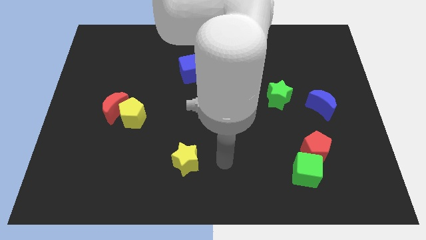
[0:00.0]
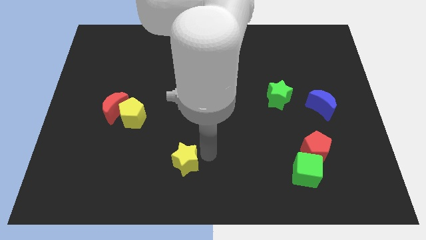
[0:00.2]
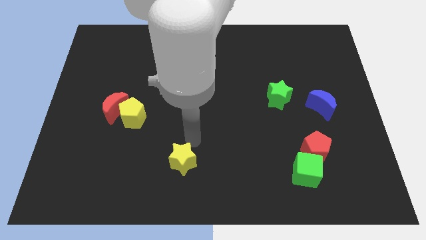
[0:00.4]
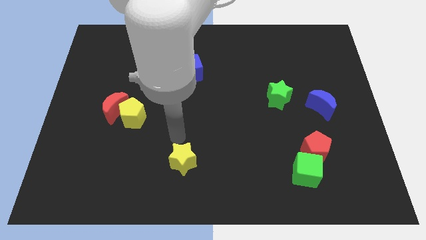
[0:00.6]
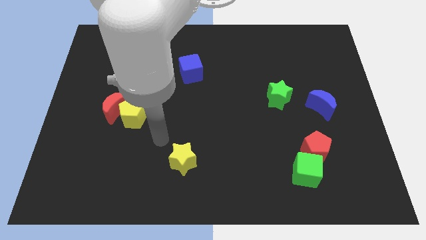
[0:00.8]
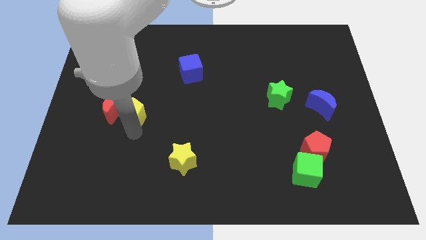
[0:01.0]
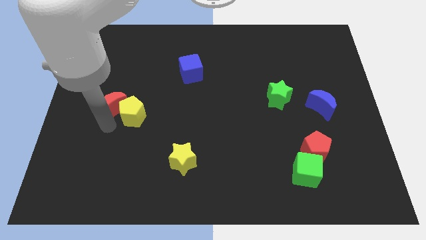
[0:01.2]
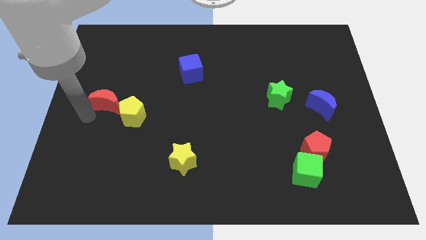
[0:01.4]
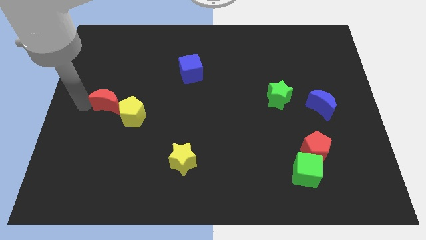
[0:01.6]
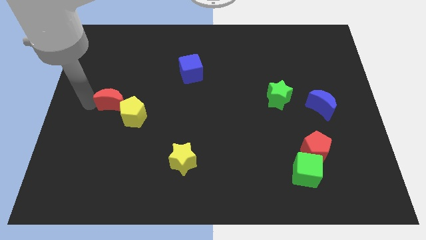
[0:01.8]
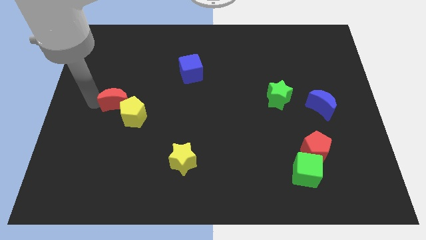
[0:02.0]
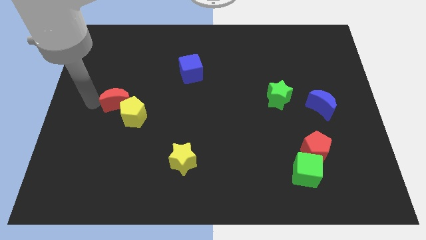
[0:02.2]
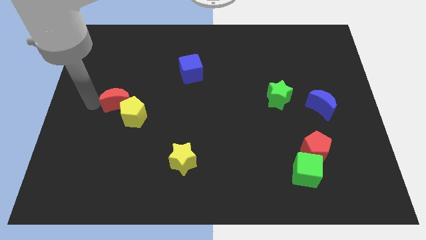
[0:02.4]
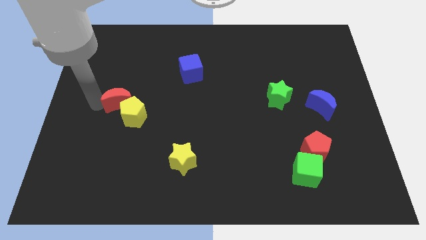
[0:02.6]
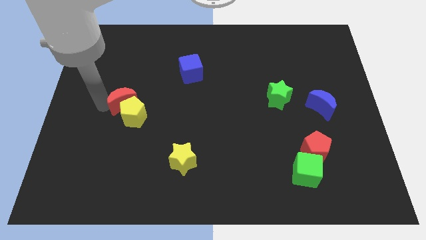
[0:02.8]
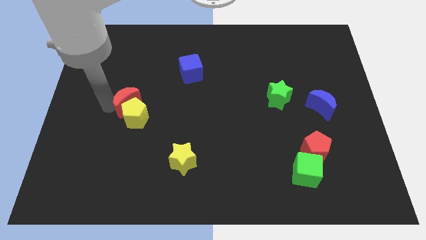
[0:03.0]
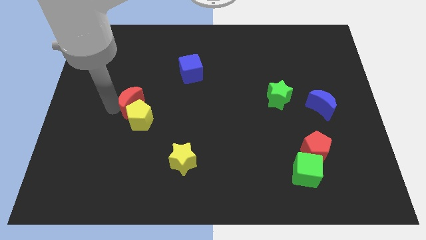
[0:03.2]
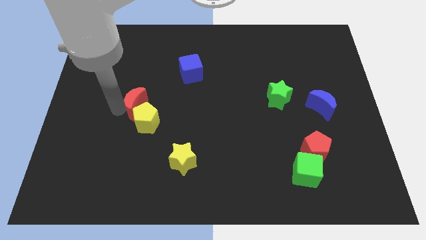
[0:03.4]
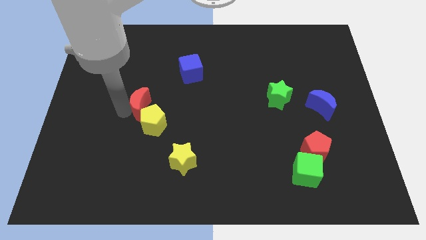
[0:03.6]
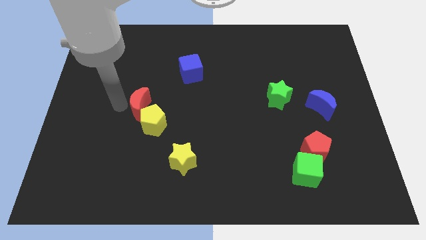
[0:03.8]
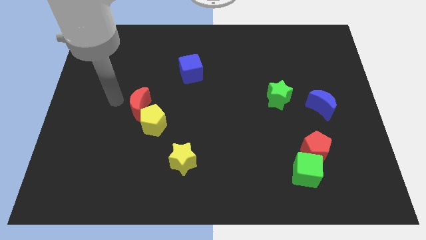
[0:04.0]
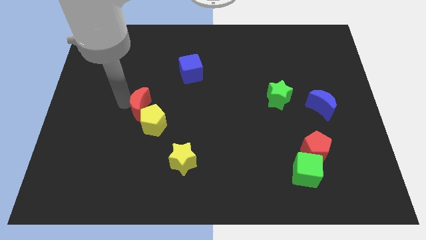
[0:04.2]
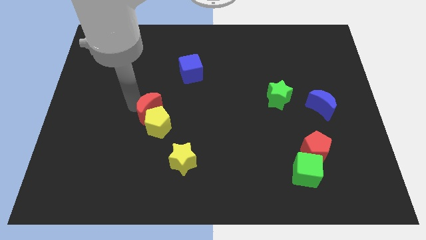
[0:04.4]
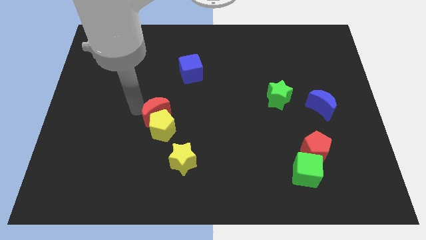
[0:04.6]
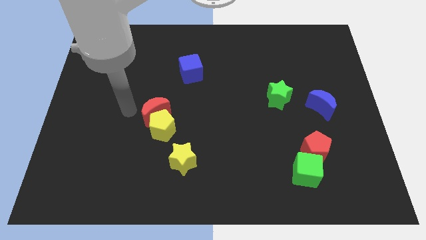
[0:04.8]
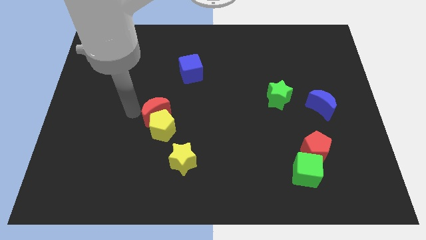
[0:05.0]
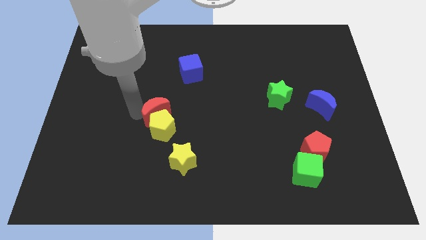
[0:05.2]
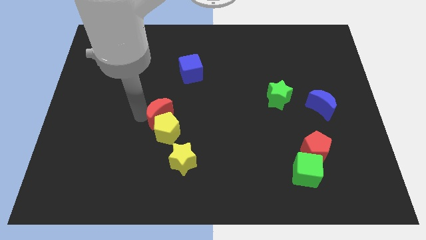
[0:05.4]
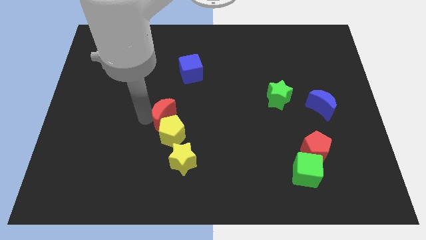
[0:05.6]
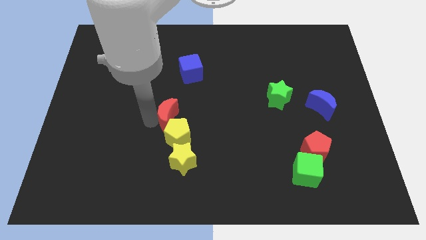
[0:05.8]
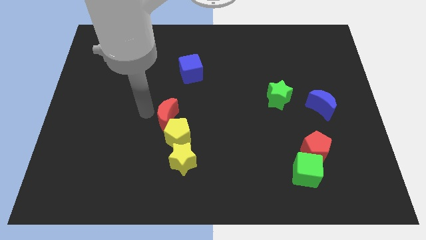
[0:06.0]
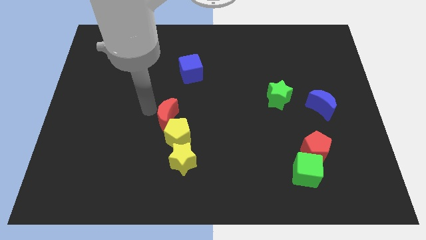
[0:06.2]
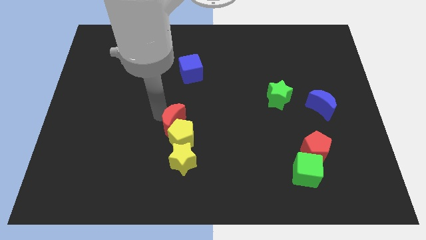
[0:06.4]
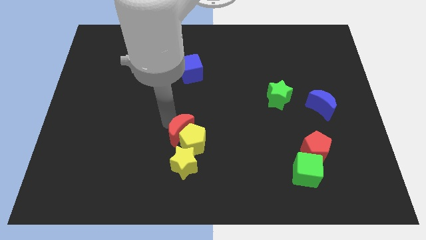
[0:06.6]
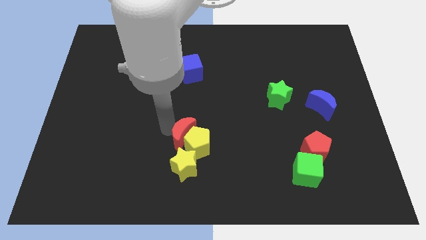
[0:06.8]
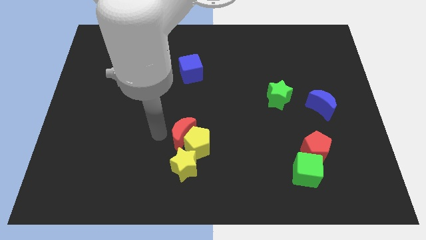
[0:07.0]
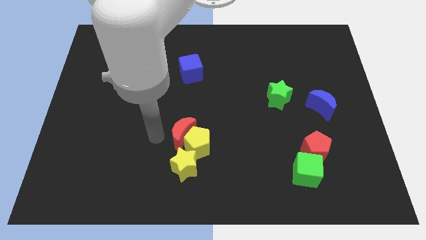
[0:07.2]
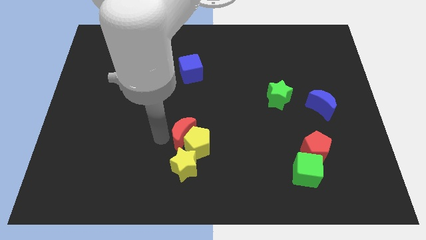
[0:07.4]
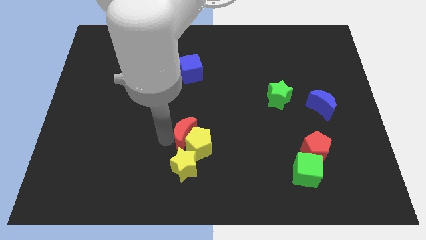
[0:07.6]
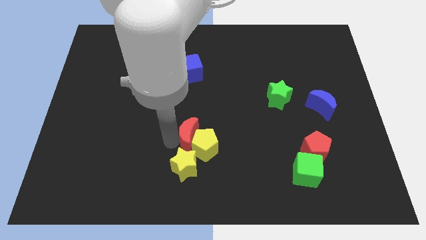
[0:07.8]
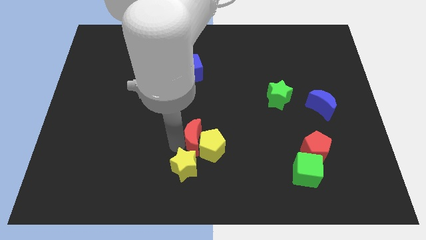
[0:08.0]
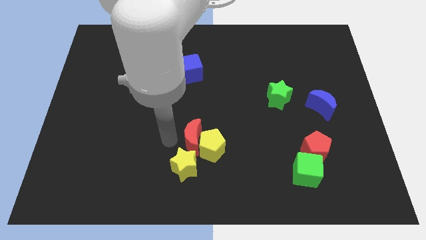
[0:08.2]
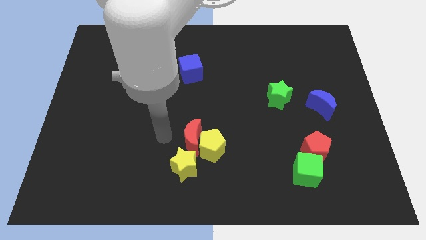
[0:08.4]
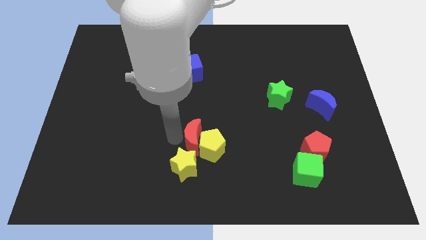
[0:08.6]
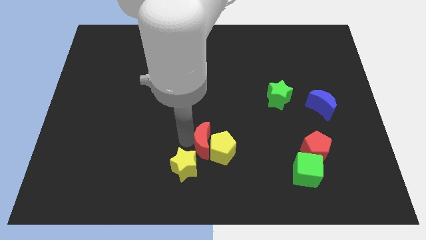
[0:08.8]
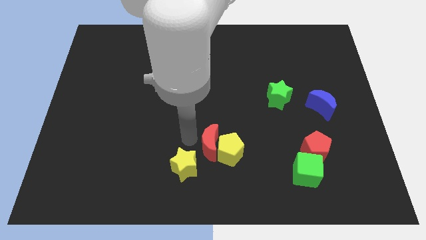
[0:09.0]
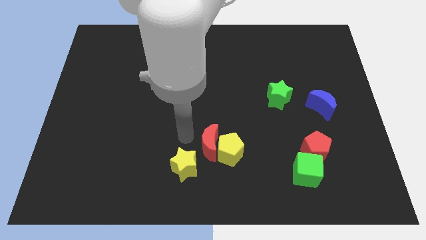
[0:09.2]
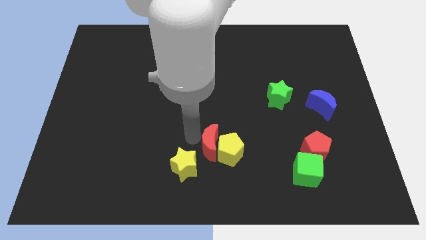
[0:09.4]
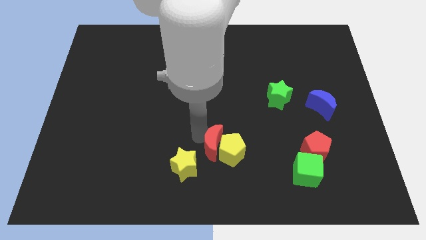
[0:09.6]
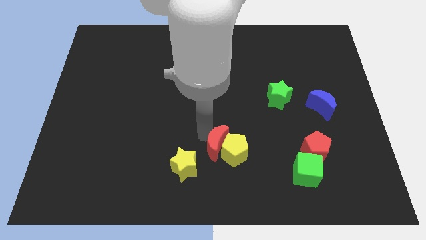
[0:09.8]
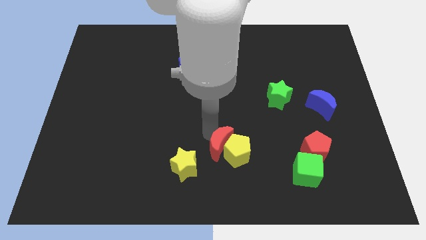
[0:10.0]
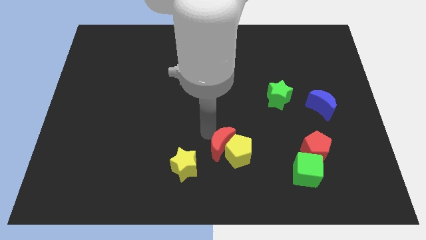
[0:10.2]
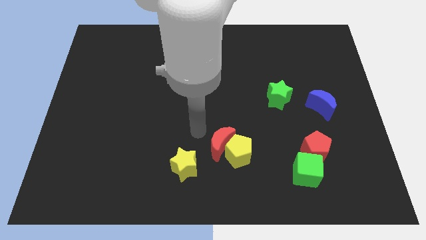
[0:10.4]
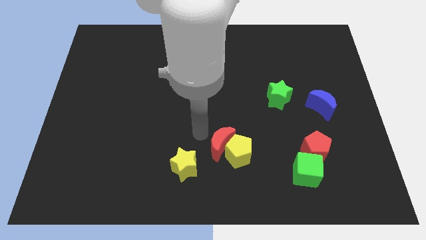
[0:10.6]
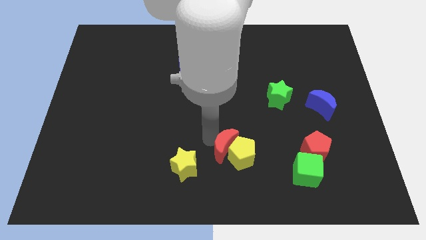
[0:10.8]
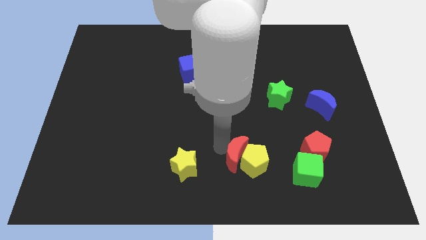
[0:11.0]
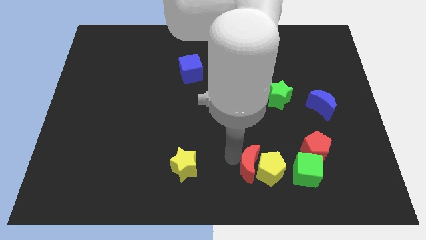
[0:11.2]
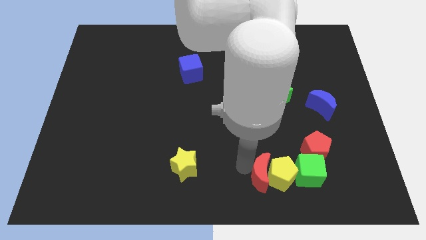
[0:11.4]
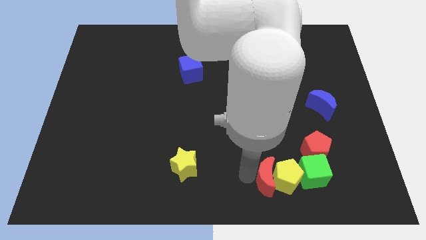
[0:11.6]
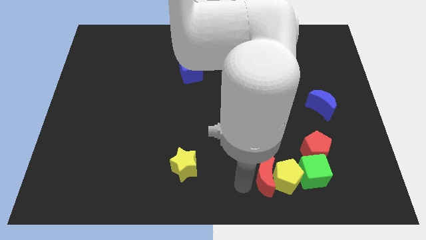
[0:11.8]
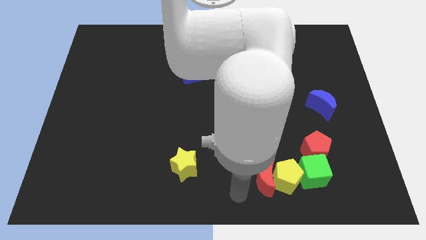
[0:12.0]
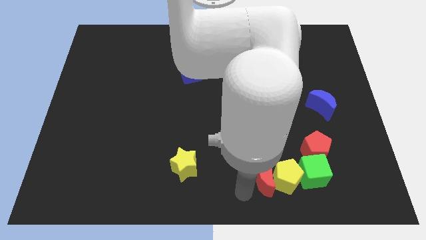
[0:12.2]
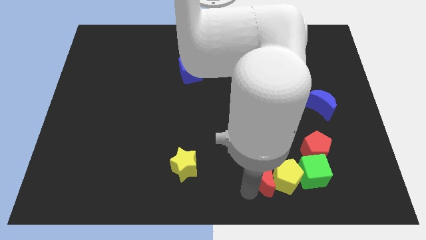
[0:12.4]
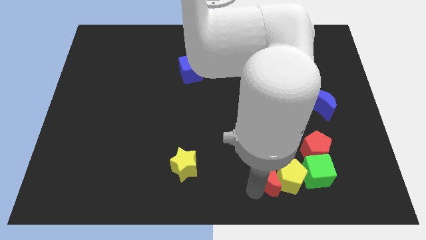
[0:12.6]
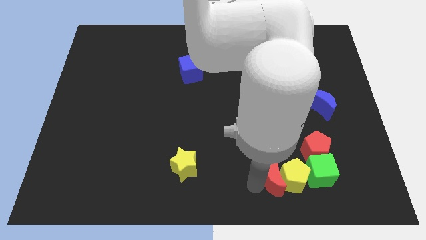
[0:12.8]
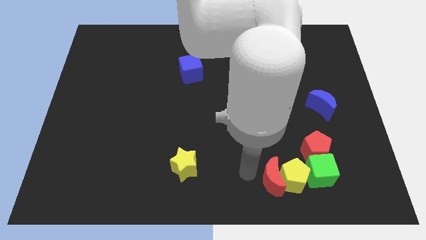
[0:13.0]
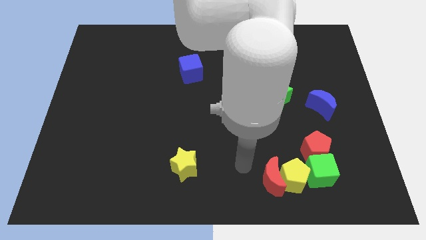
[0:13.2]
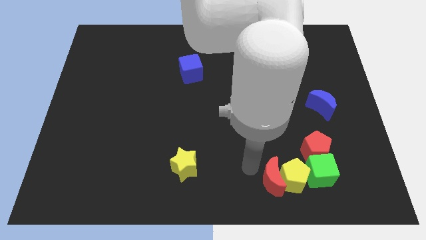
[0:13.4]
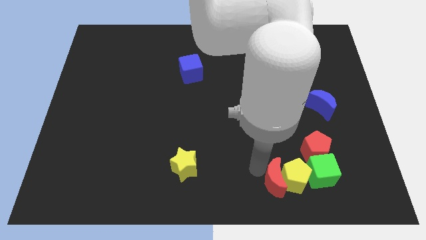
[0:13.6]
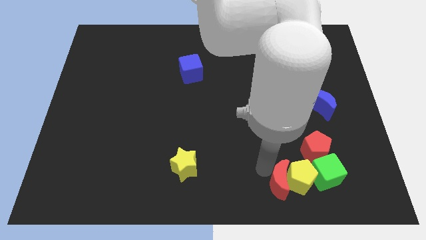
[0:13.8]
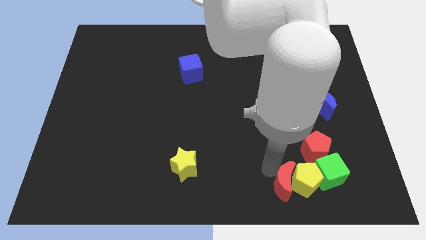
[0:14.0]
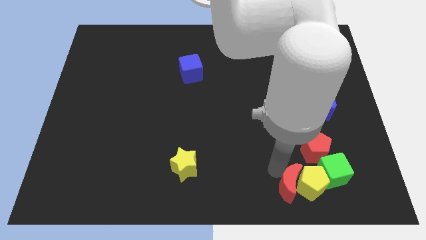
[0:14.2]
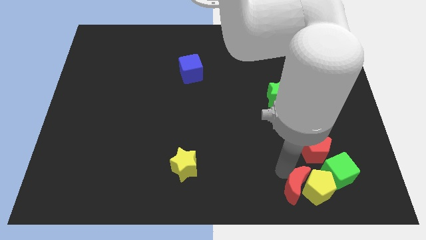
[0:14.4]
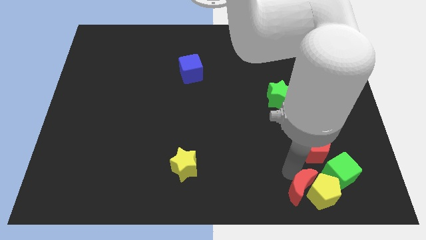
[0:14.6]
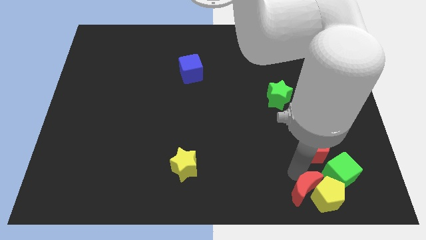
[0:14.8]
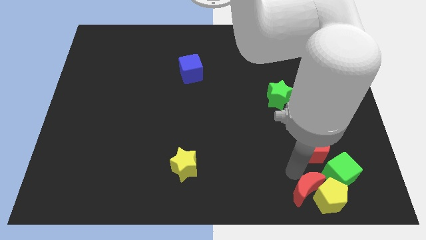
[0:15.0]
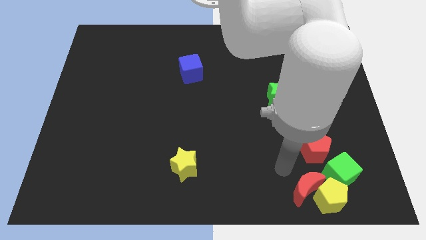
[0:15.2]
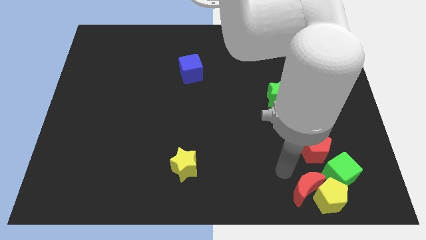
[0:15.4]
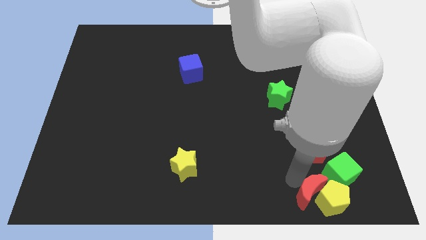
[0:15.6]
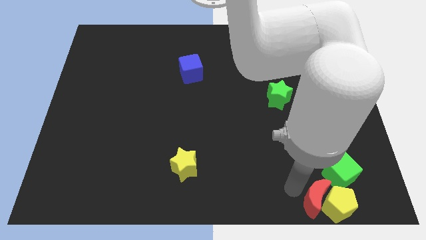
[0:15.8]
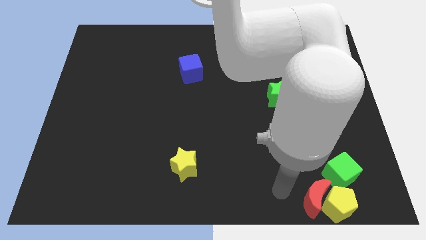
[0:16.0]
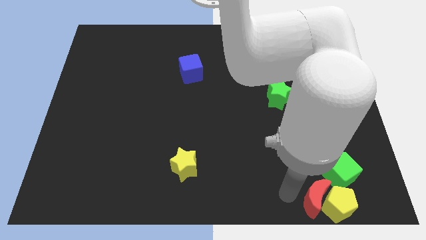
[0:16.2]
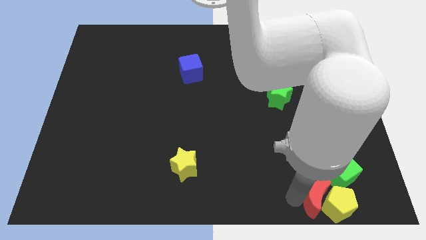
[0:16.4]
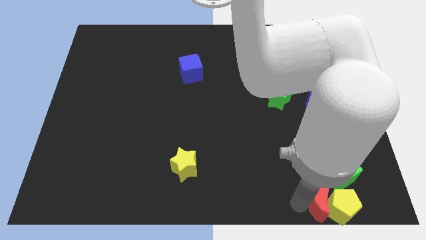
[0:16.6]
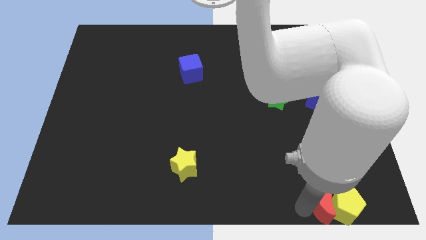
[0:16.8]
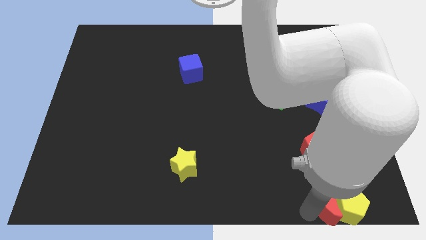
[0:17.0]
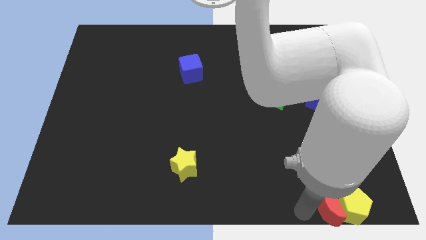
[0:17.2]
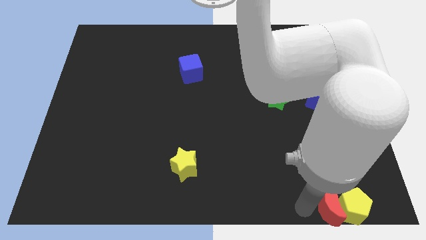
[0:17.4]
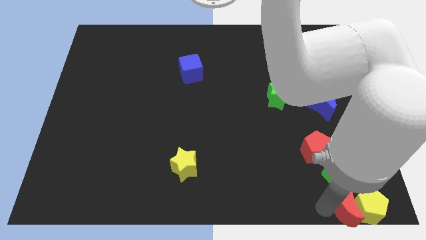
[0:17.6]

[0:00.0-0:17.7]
move the red moon to the bottom right of the board
